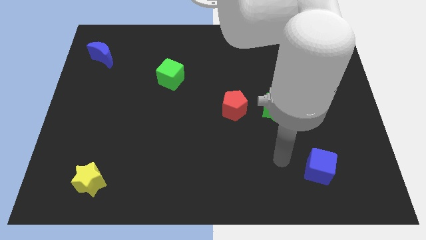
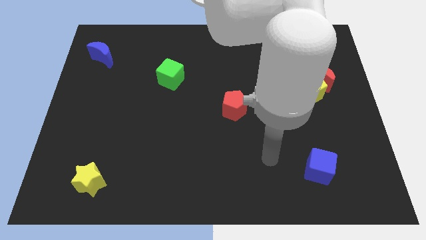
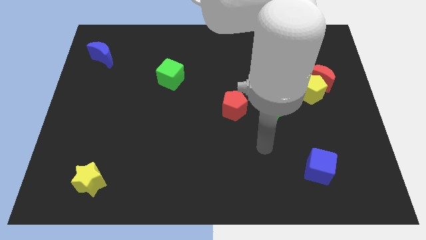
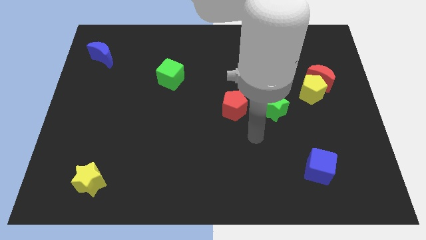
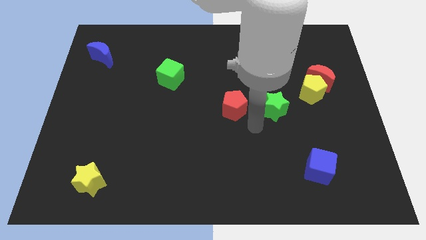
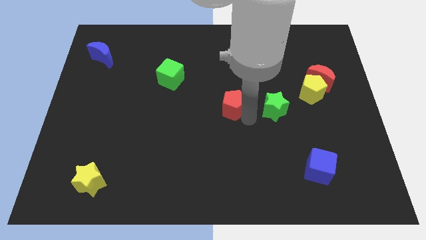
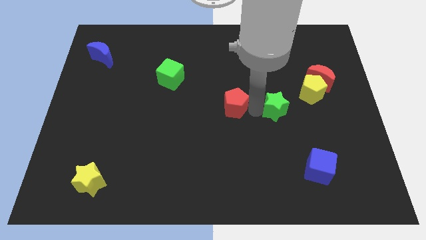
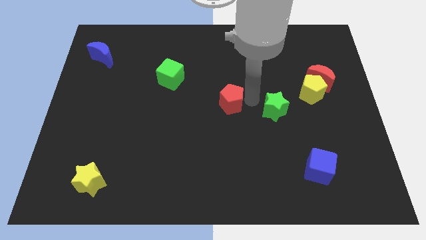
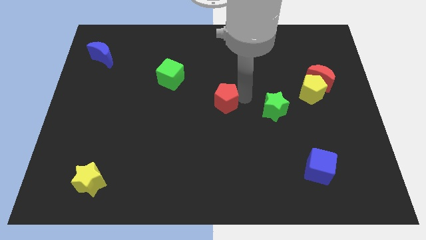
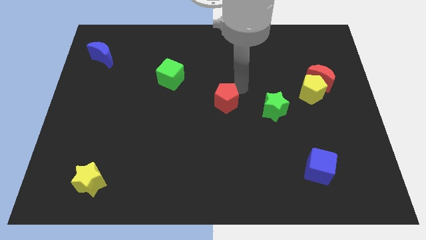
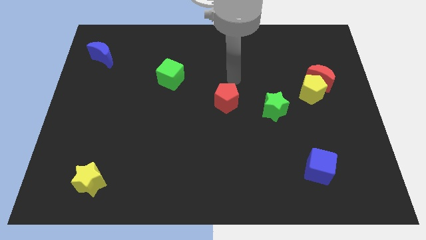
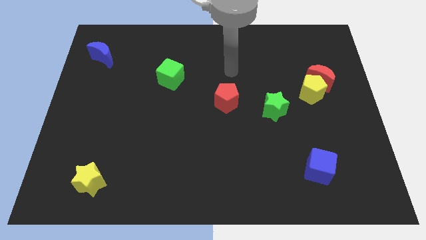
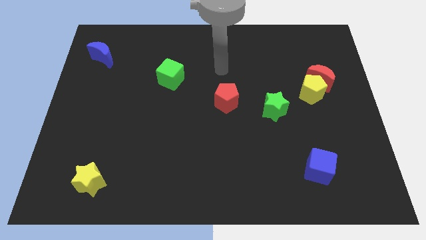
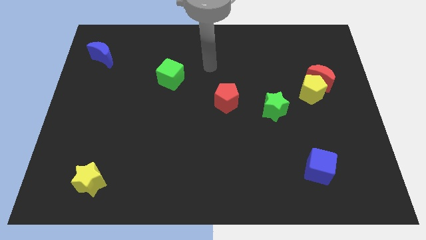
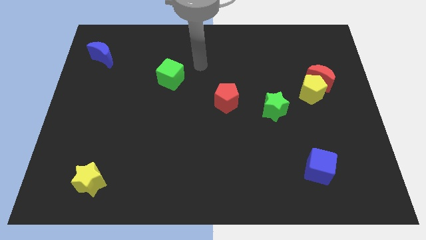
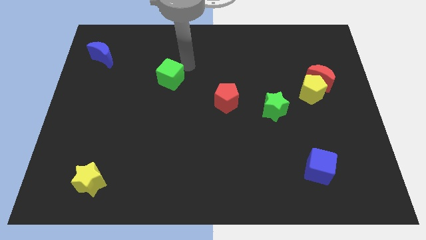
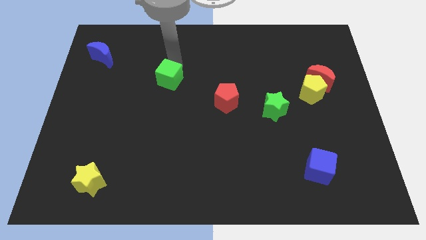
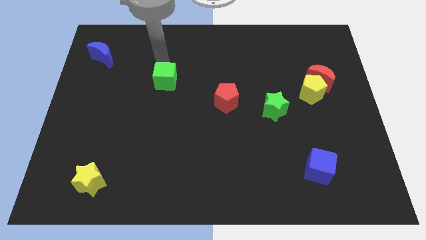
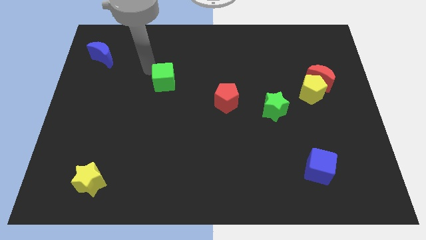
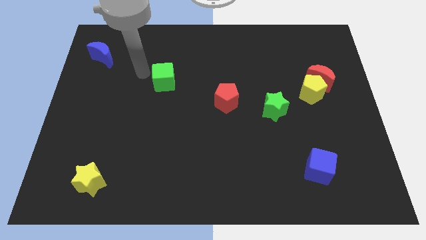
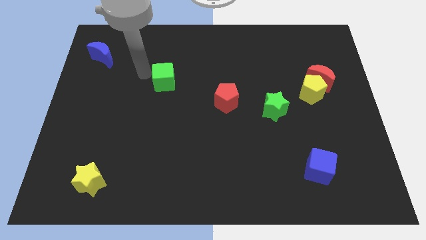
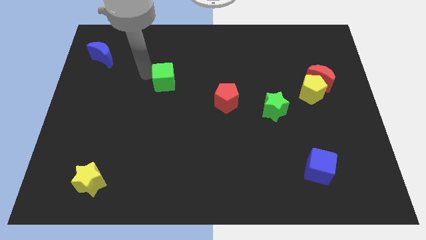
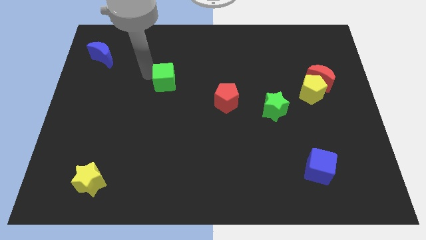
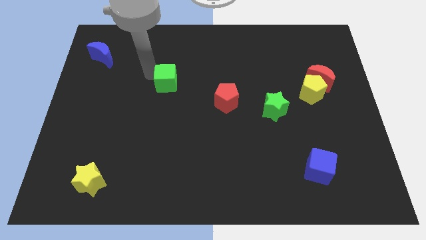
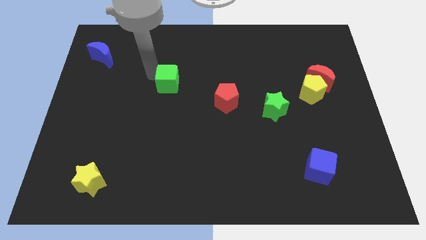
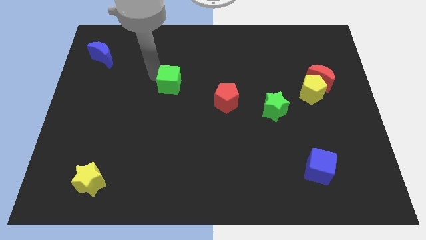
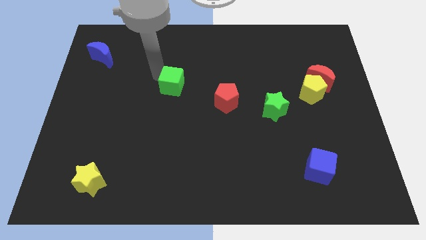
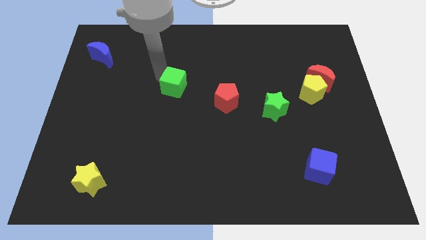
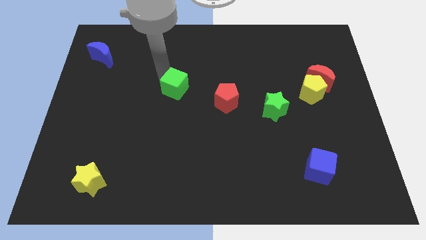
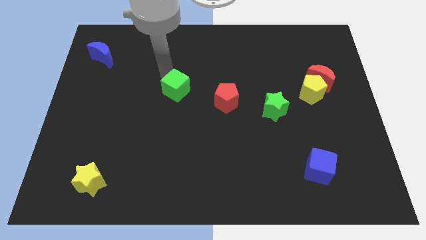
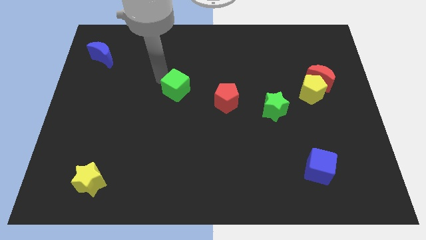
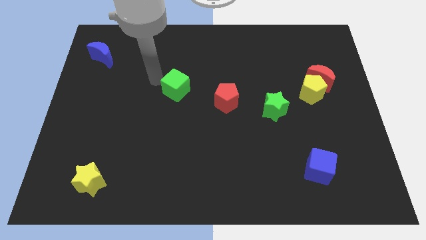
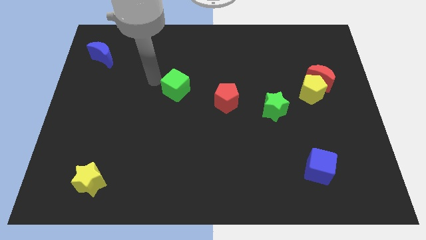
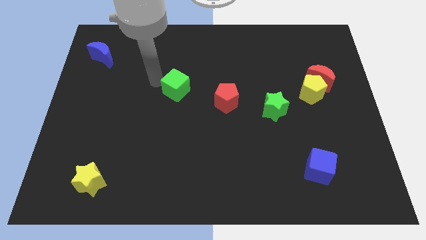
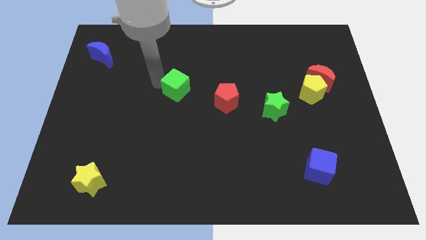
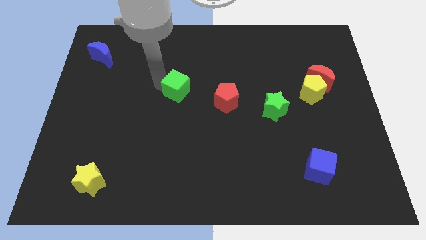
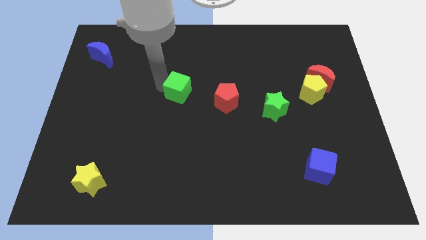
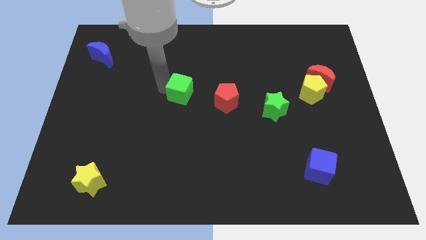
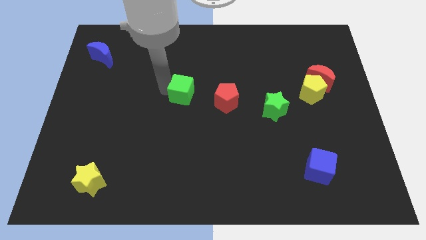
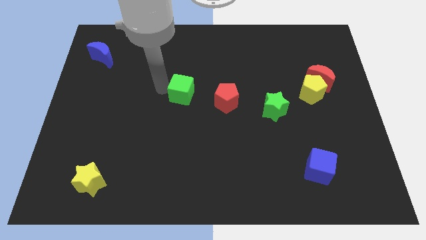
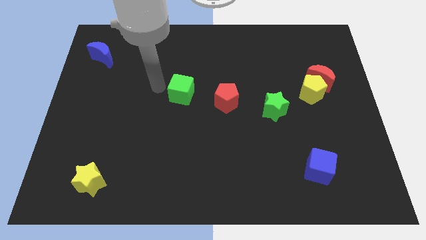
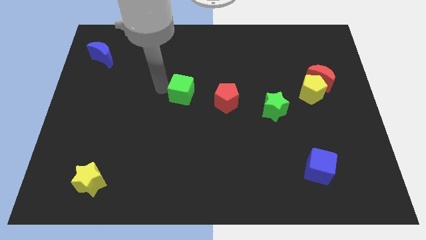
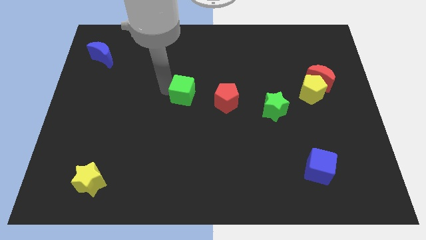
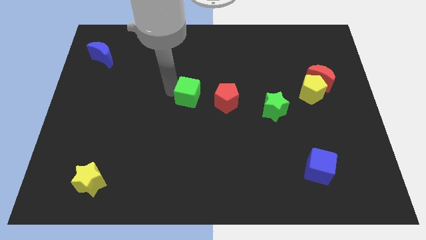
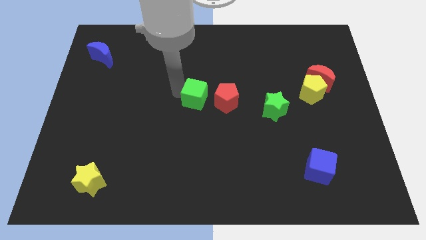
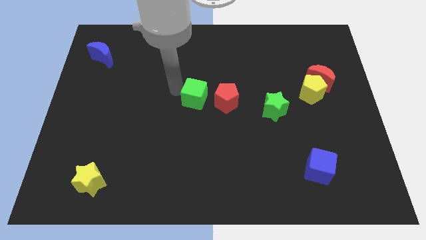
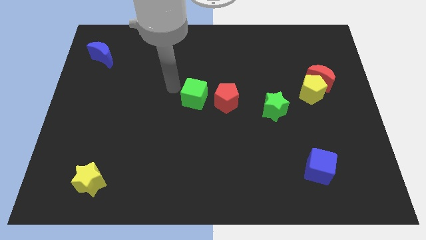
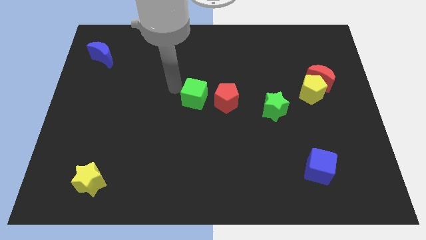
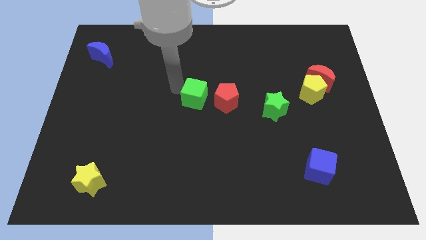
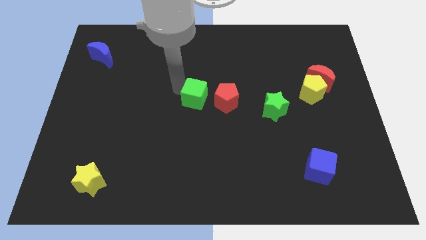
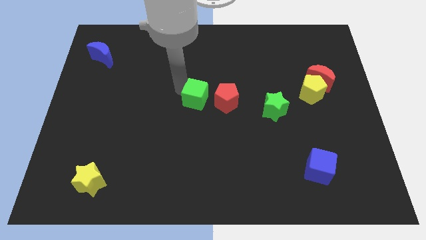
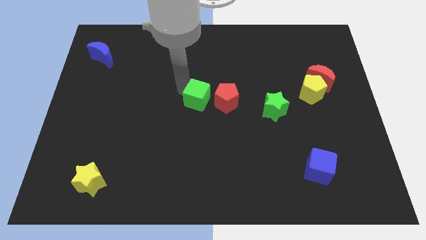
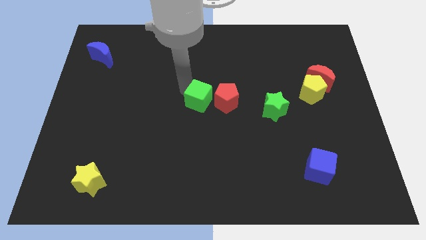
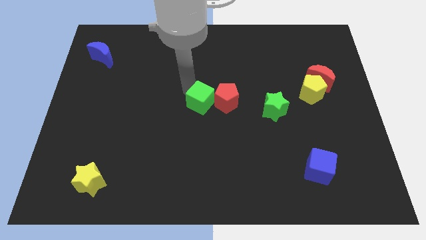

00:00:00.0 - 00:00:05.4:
slide the green cube next to the red pentagon

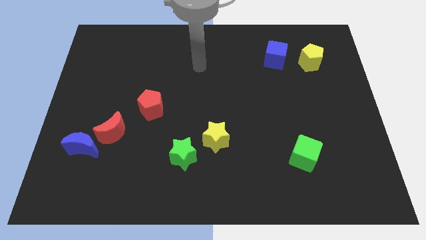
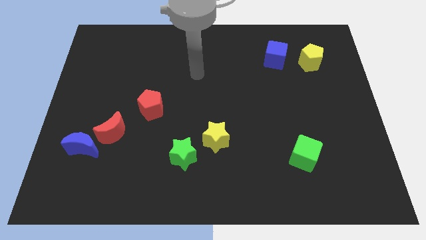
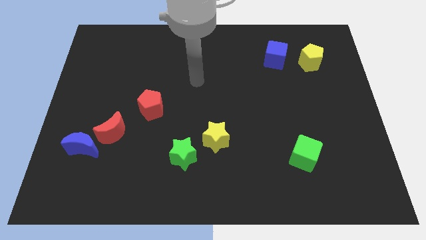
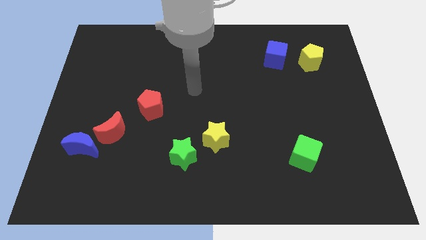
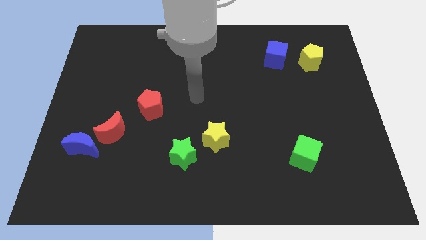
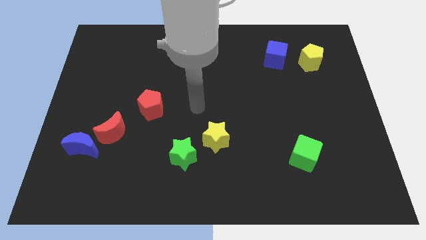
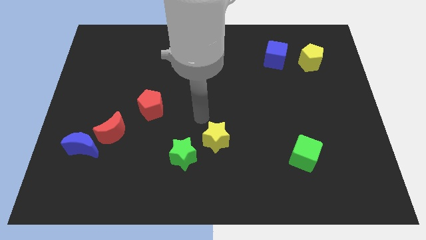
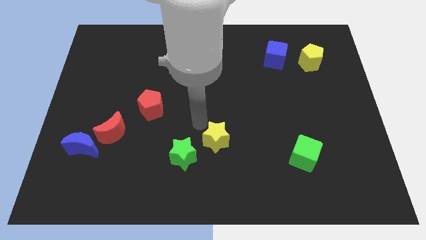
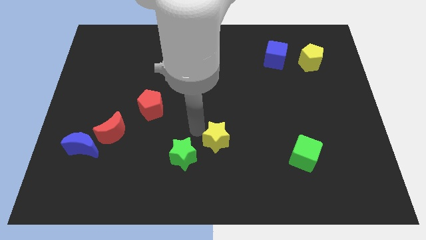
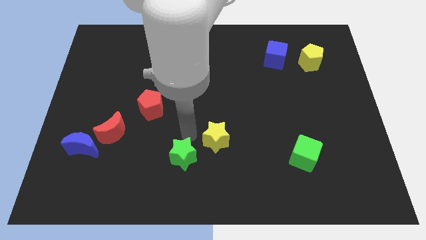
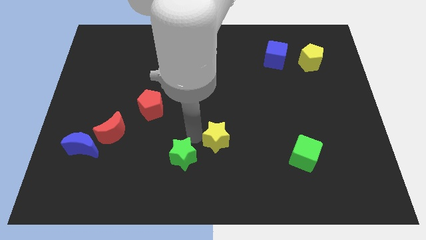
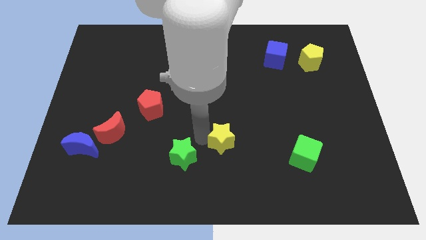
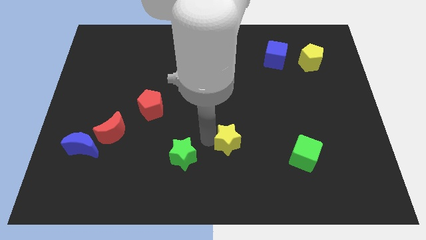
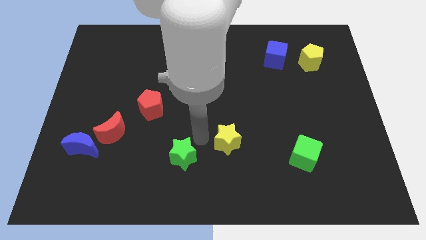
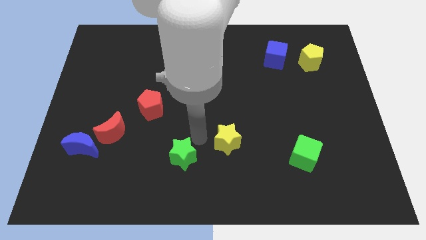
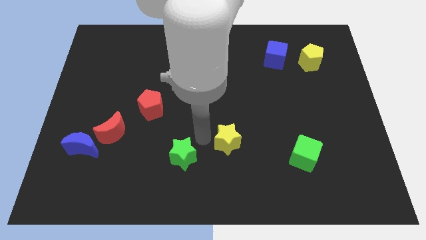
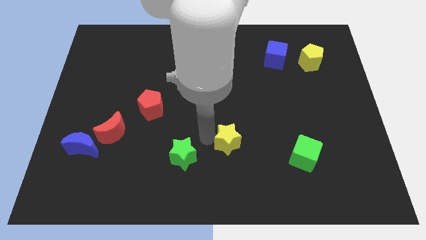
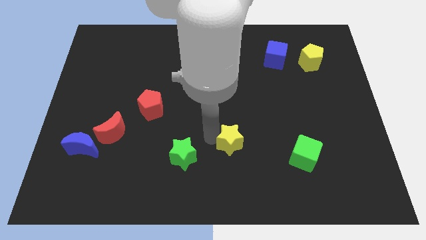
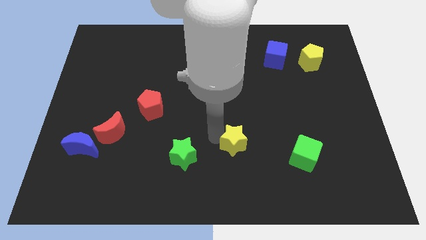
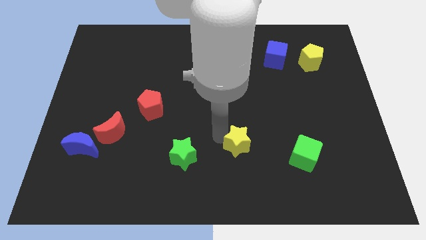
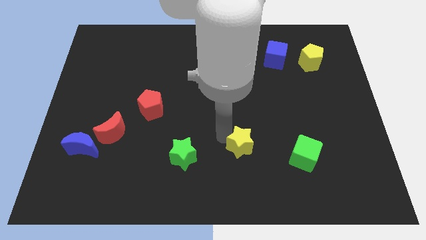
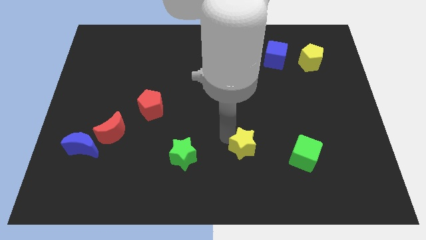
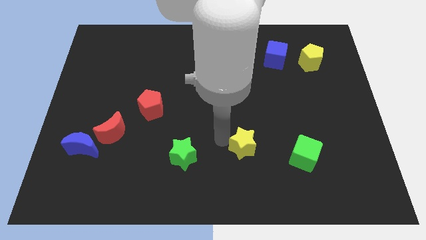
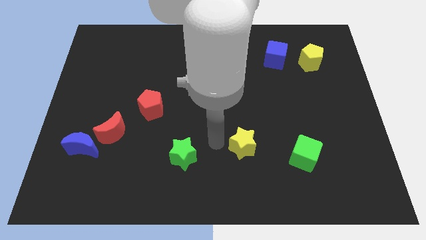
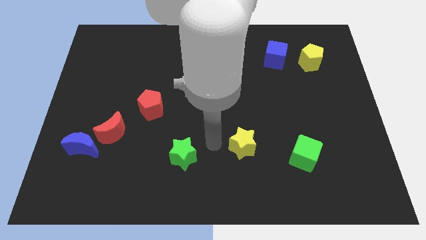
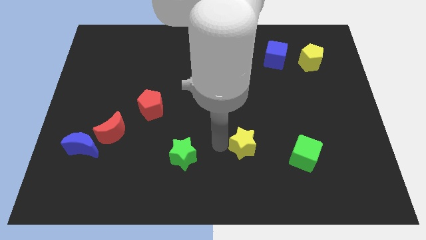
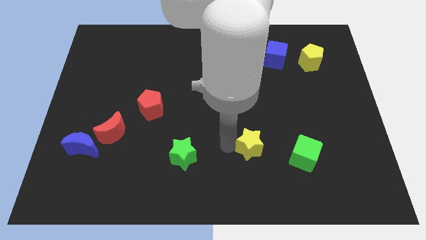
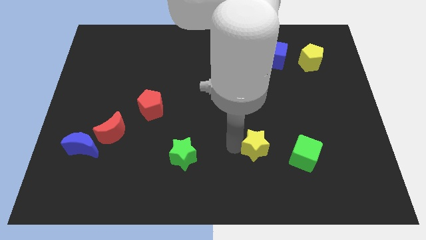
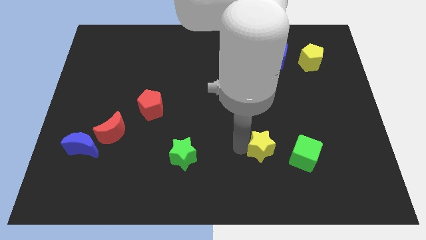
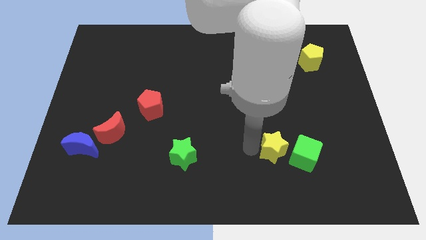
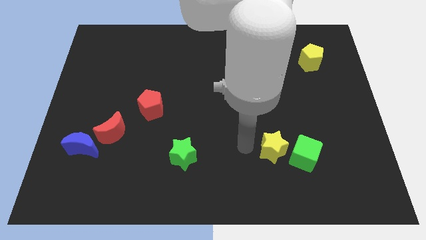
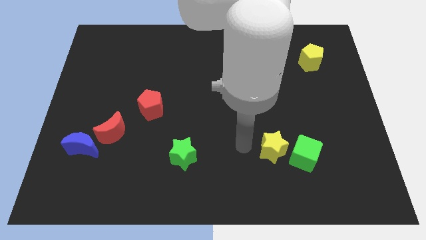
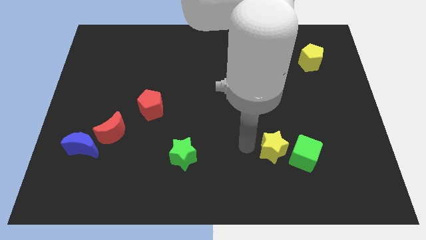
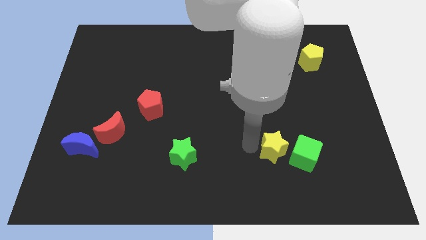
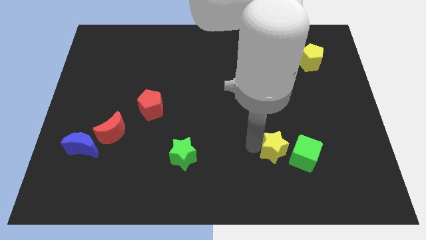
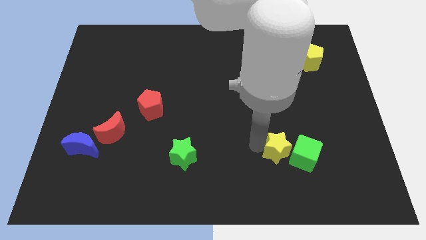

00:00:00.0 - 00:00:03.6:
put the yellow star next to the green cube
